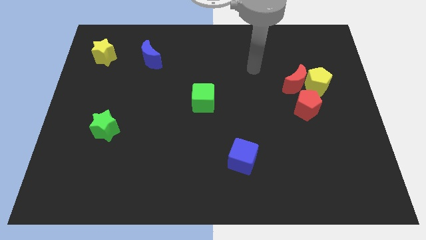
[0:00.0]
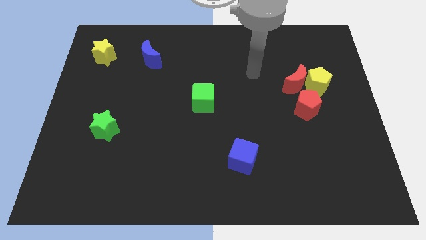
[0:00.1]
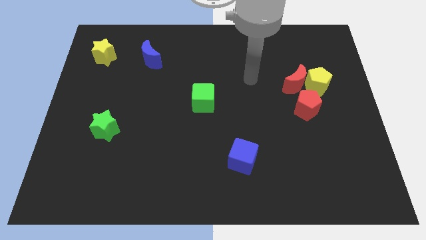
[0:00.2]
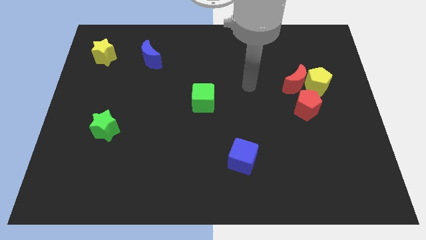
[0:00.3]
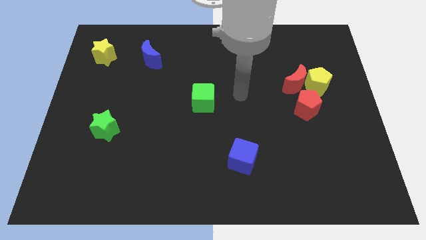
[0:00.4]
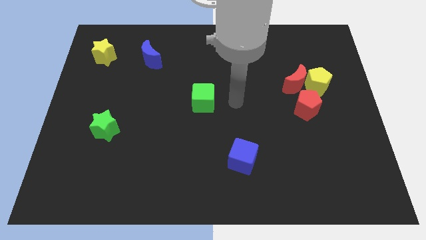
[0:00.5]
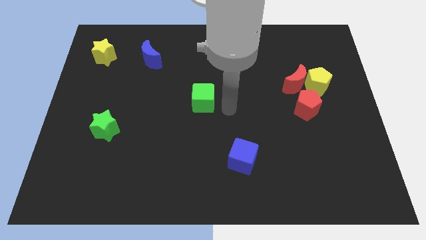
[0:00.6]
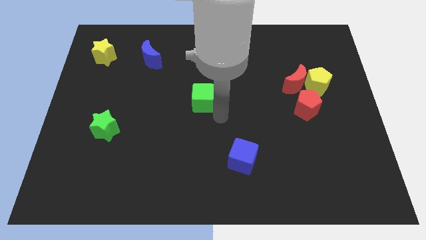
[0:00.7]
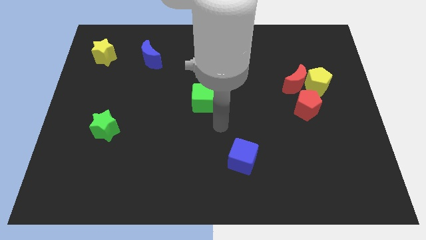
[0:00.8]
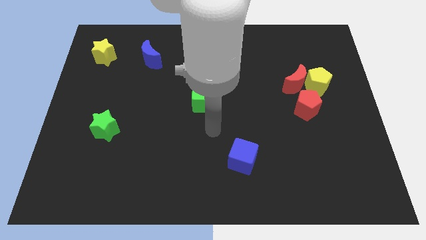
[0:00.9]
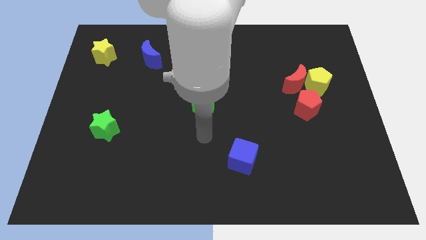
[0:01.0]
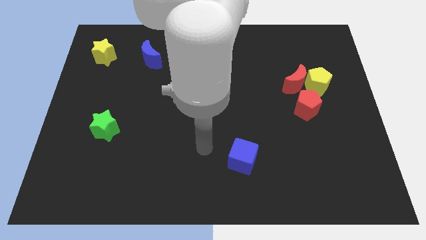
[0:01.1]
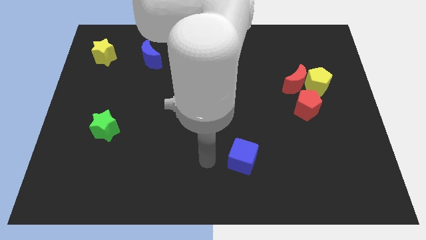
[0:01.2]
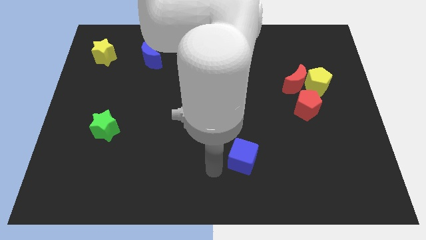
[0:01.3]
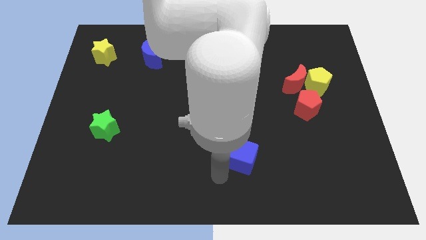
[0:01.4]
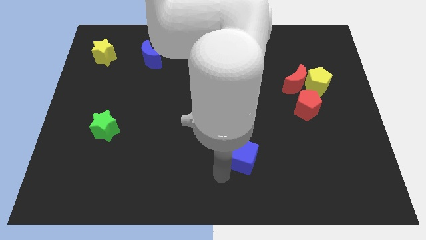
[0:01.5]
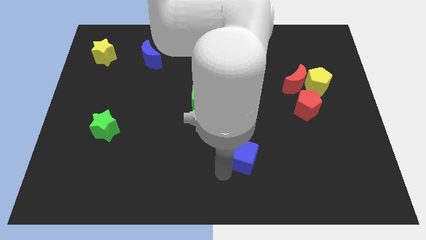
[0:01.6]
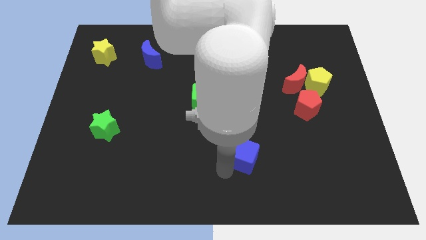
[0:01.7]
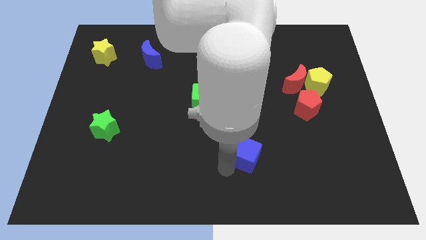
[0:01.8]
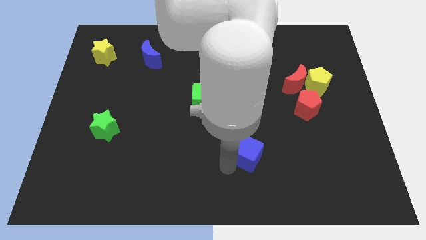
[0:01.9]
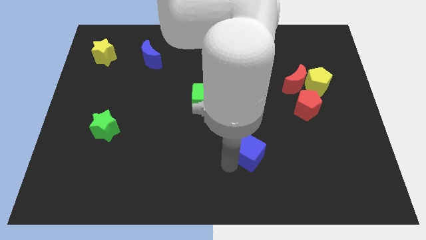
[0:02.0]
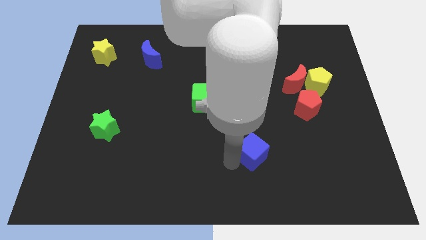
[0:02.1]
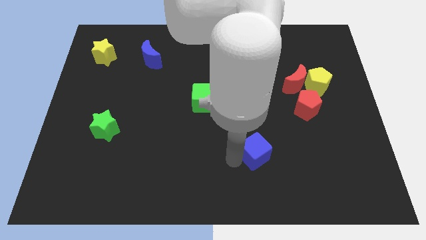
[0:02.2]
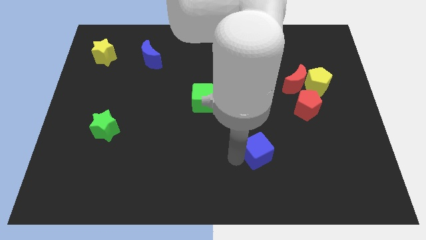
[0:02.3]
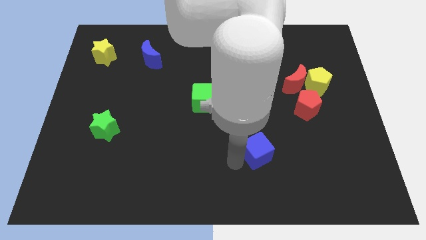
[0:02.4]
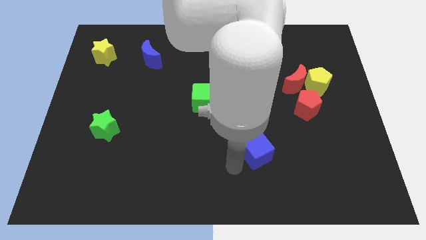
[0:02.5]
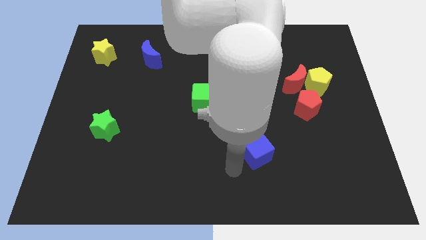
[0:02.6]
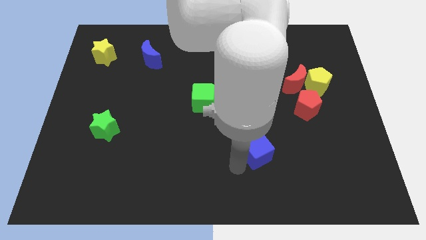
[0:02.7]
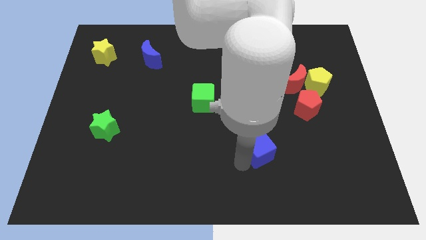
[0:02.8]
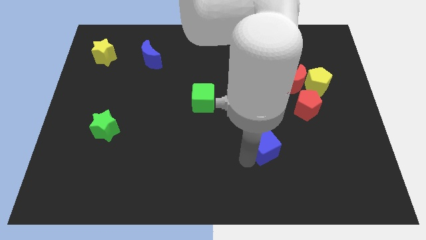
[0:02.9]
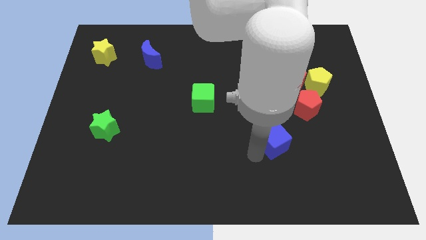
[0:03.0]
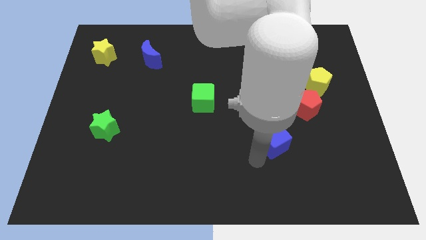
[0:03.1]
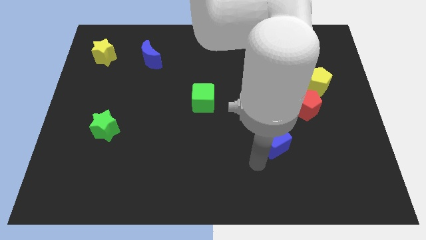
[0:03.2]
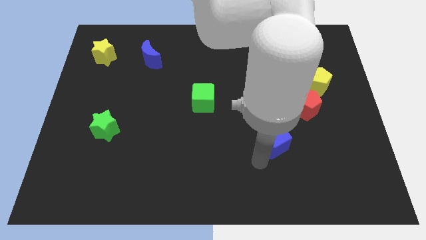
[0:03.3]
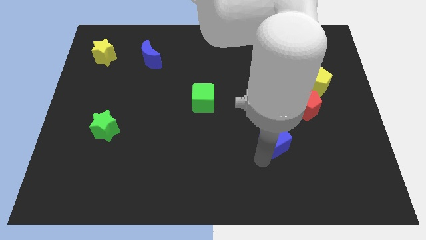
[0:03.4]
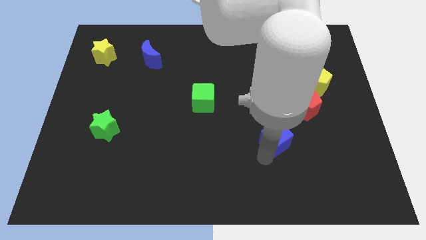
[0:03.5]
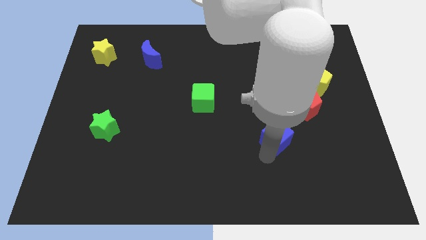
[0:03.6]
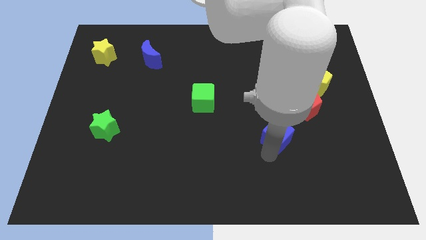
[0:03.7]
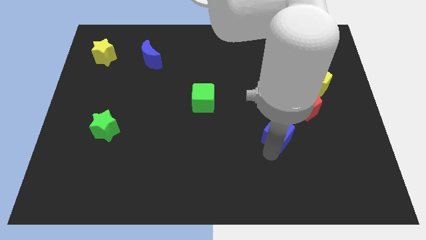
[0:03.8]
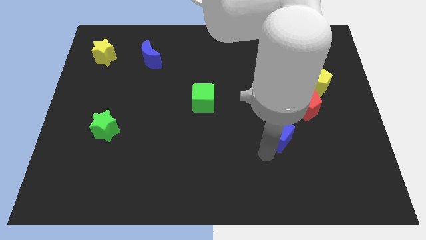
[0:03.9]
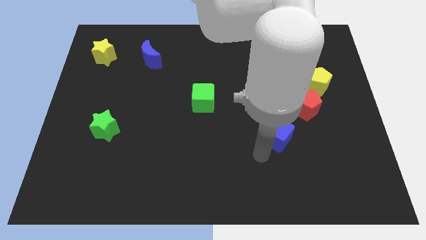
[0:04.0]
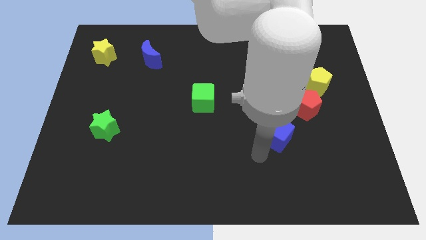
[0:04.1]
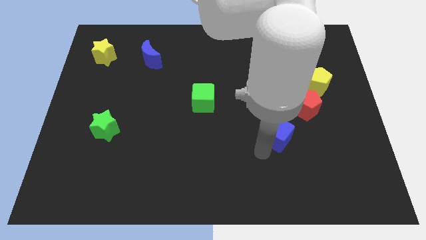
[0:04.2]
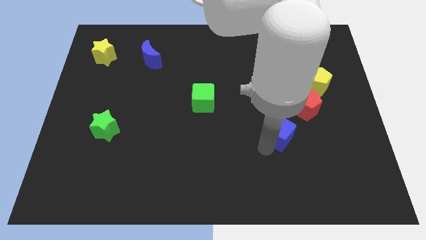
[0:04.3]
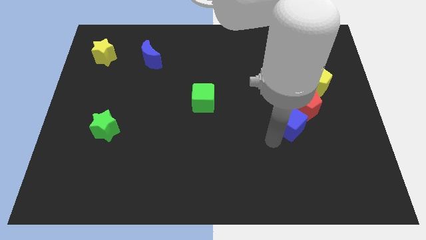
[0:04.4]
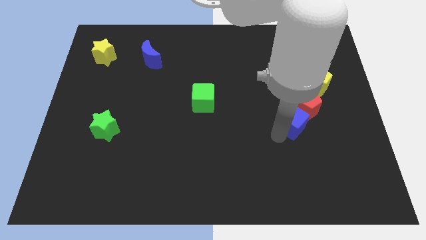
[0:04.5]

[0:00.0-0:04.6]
move the blue cube to the red pentagon

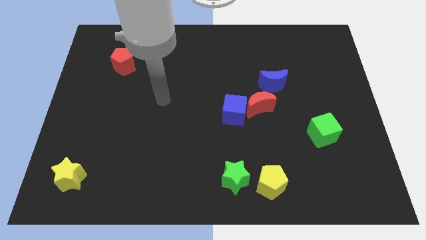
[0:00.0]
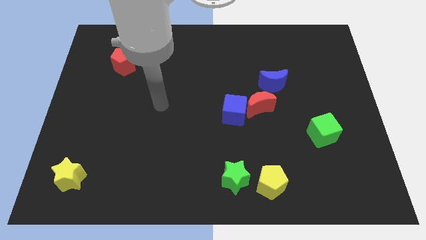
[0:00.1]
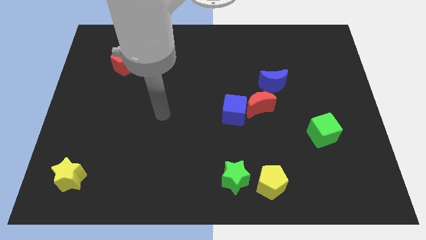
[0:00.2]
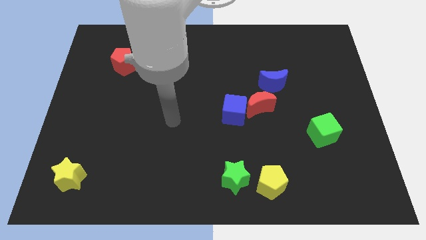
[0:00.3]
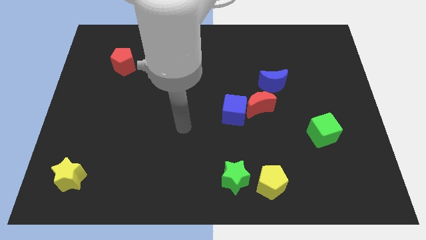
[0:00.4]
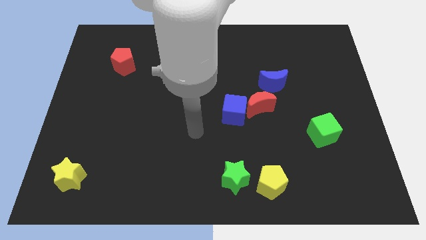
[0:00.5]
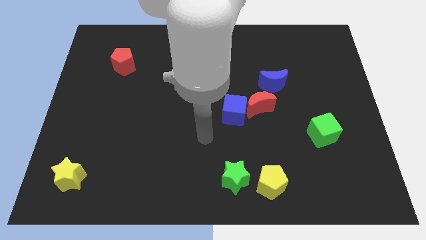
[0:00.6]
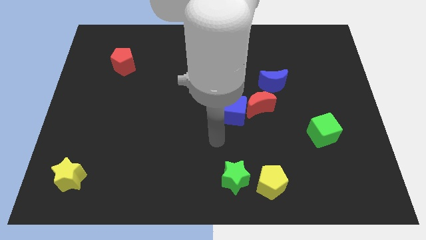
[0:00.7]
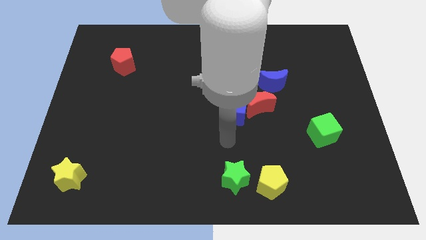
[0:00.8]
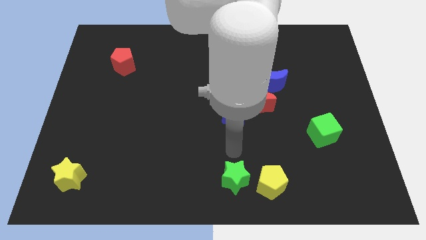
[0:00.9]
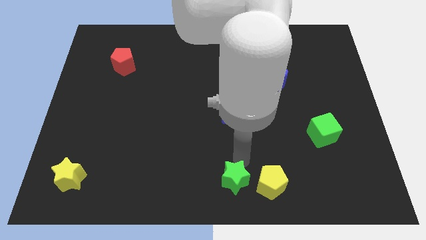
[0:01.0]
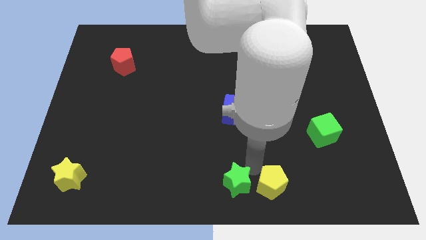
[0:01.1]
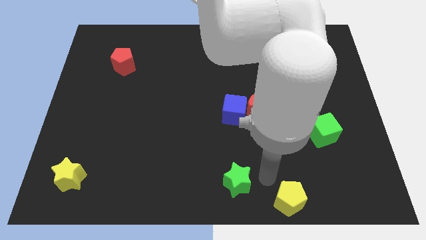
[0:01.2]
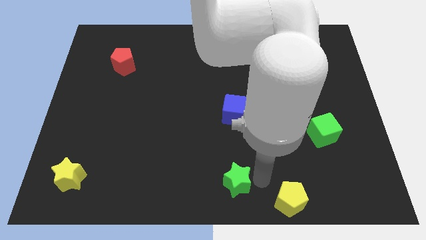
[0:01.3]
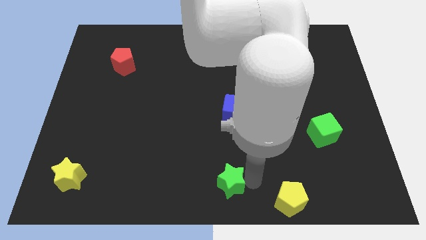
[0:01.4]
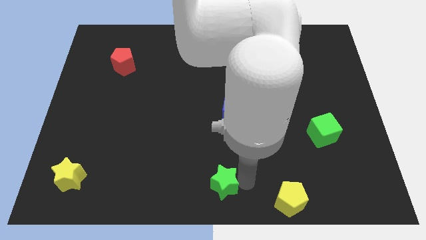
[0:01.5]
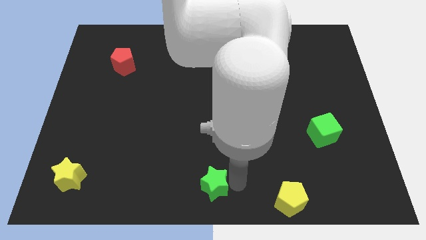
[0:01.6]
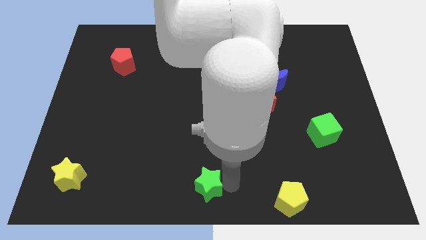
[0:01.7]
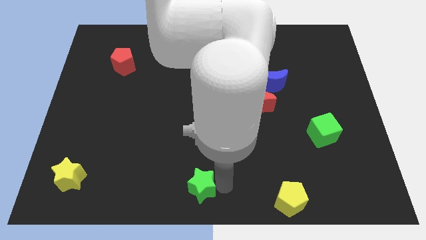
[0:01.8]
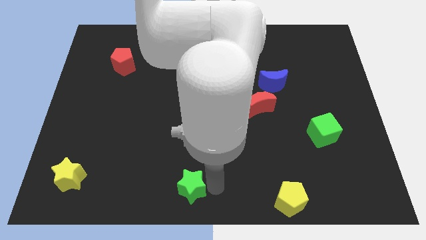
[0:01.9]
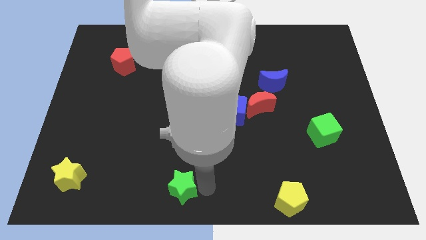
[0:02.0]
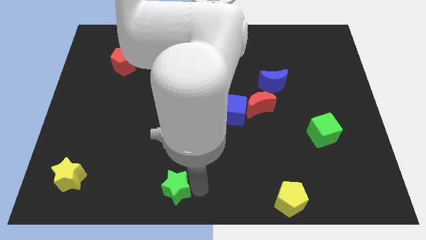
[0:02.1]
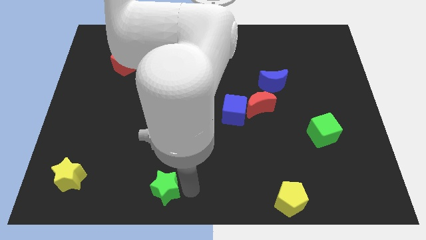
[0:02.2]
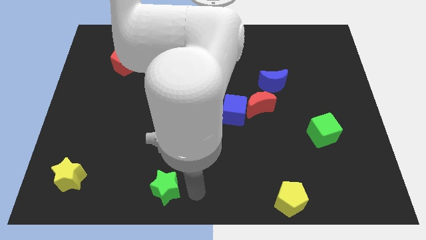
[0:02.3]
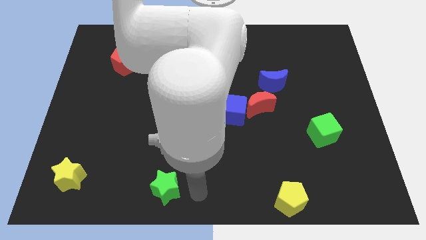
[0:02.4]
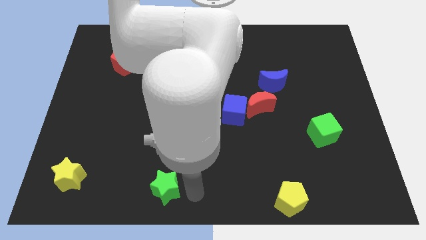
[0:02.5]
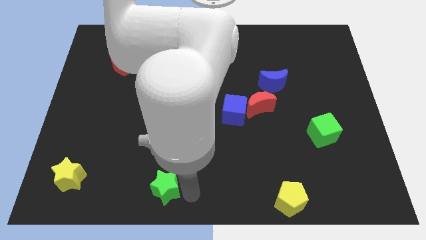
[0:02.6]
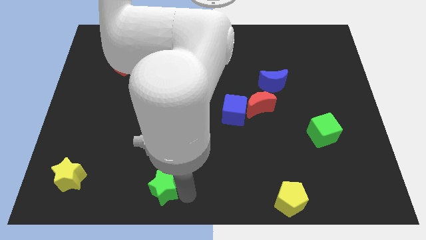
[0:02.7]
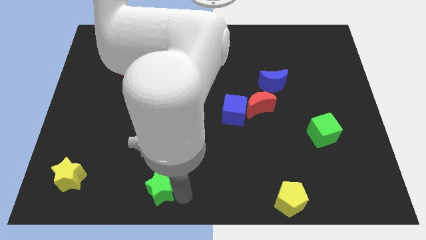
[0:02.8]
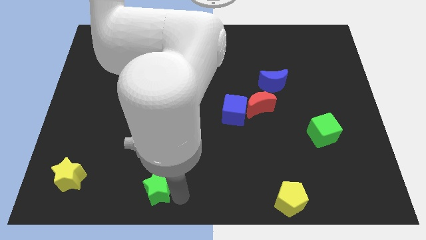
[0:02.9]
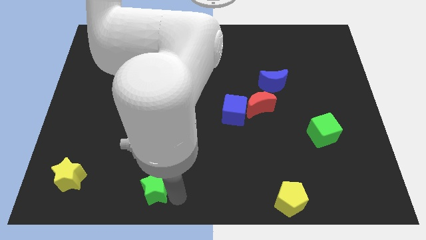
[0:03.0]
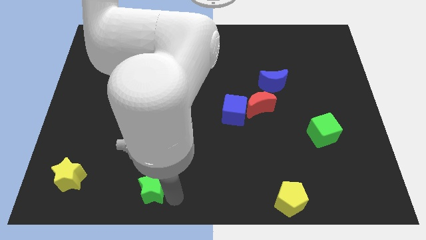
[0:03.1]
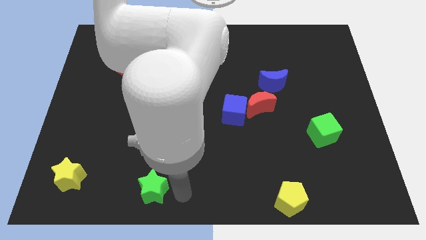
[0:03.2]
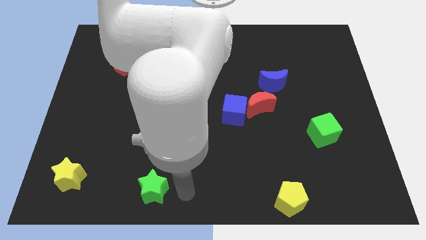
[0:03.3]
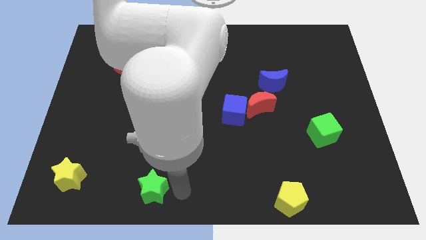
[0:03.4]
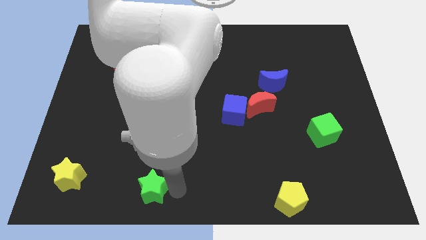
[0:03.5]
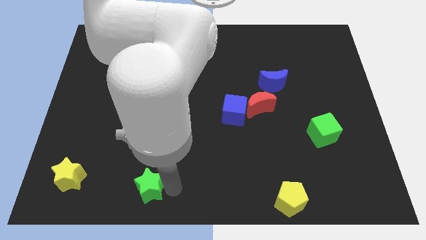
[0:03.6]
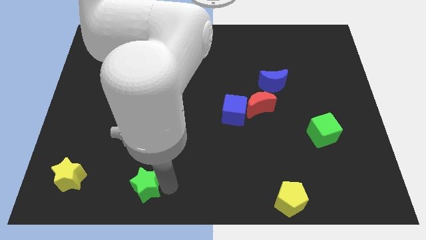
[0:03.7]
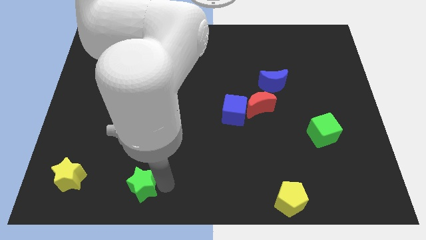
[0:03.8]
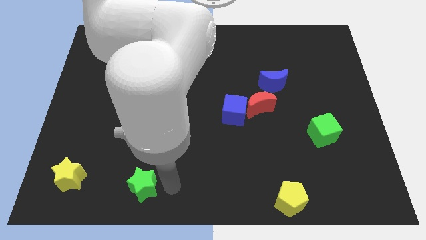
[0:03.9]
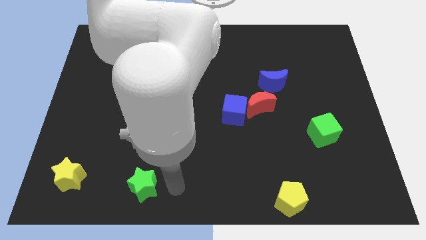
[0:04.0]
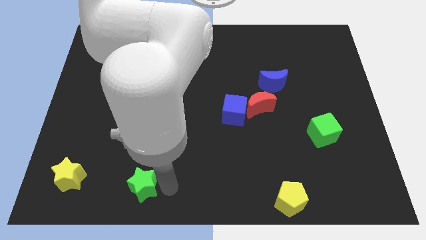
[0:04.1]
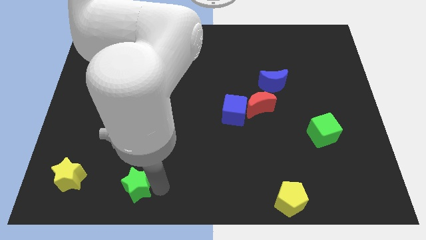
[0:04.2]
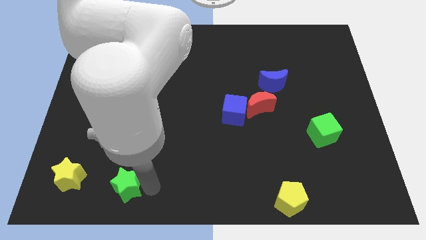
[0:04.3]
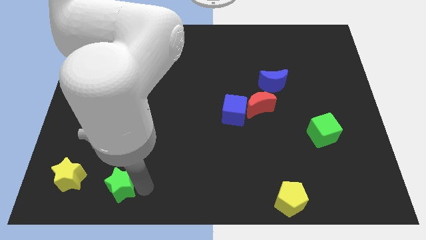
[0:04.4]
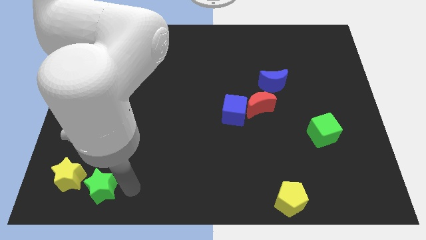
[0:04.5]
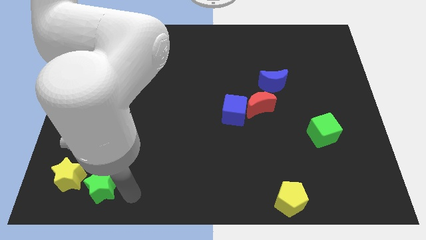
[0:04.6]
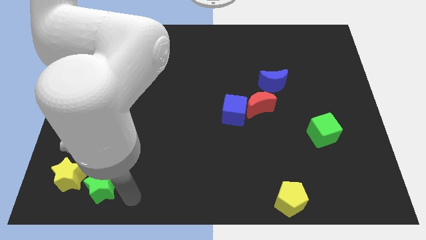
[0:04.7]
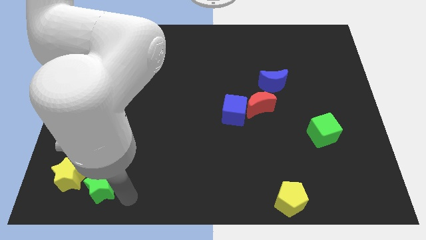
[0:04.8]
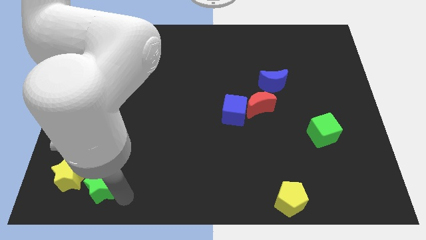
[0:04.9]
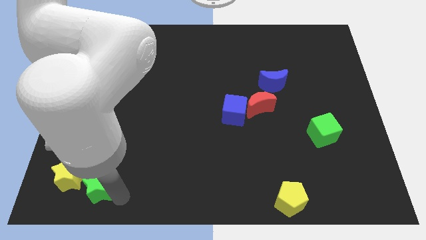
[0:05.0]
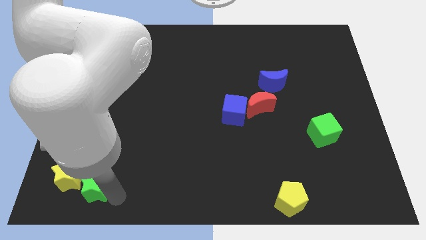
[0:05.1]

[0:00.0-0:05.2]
move the green star next to the yellow star
